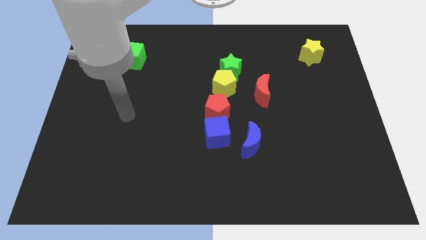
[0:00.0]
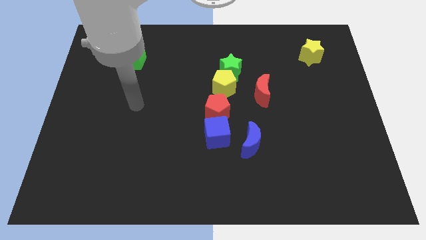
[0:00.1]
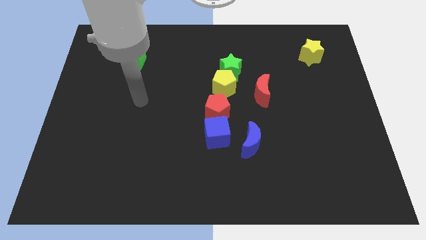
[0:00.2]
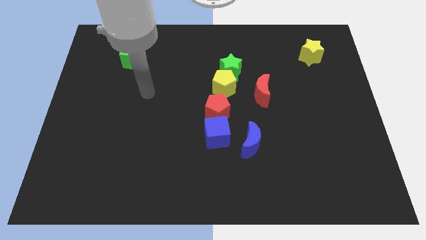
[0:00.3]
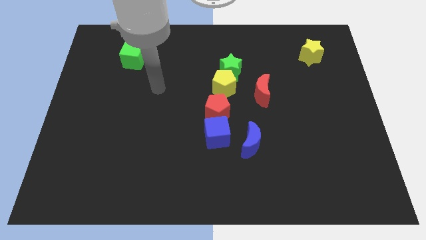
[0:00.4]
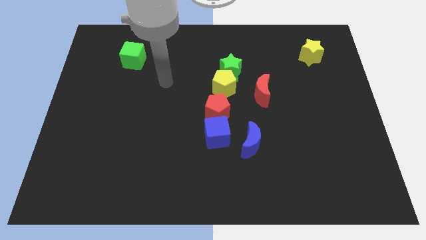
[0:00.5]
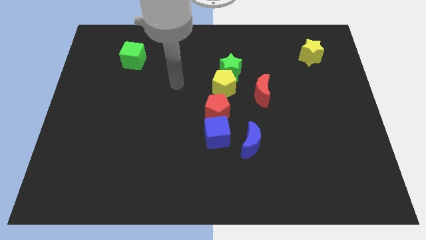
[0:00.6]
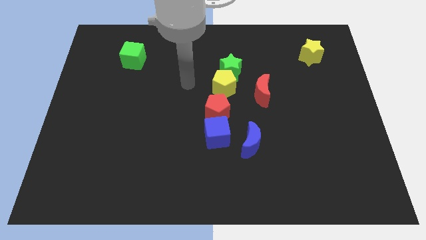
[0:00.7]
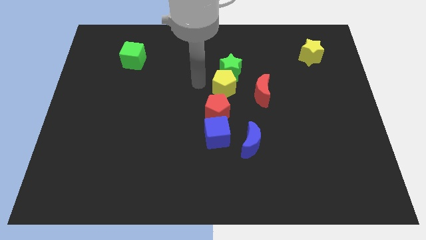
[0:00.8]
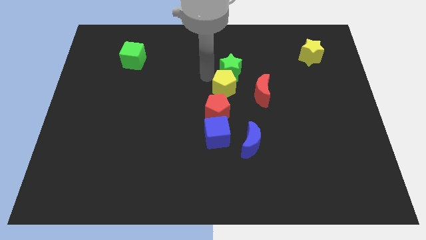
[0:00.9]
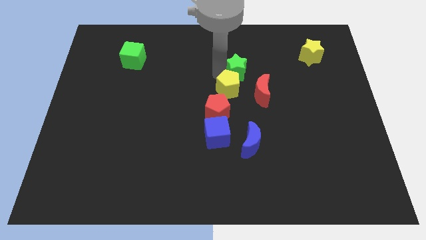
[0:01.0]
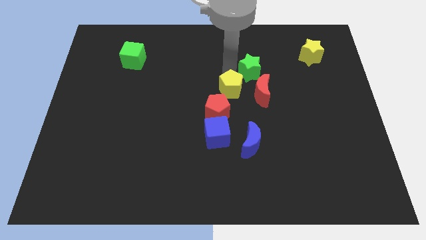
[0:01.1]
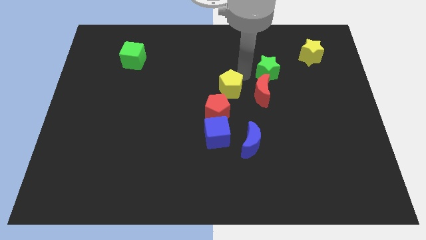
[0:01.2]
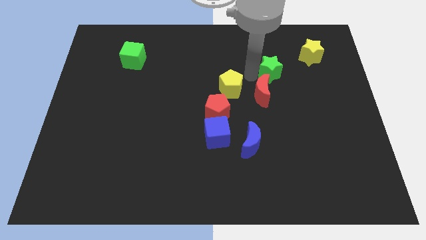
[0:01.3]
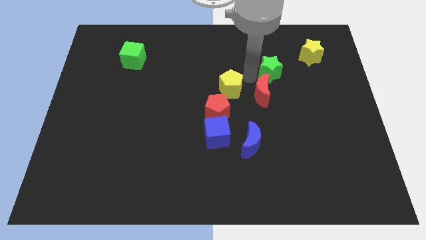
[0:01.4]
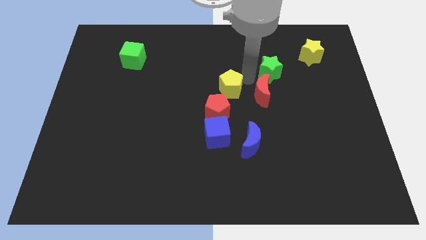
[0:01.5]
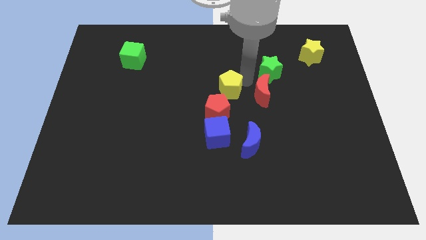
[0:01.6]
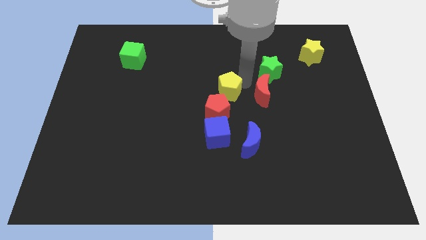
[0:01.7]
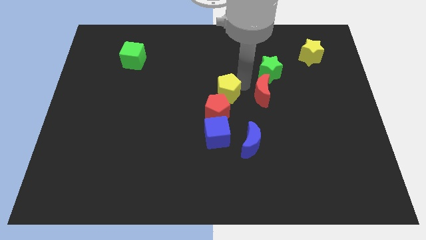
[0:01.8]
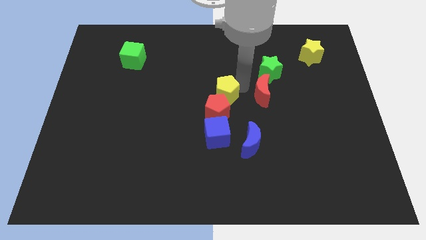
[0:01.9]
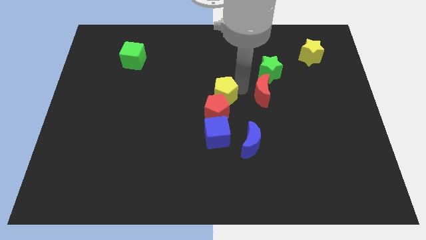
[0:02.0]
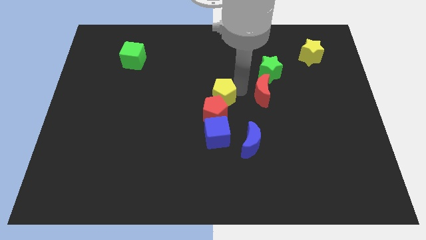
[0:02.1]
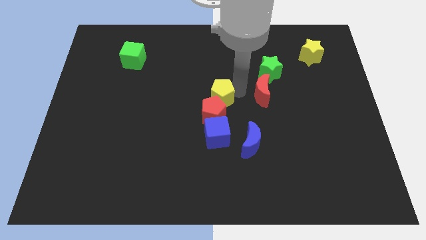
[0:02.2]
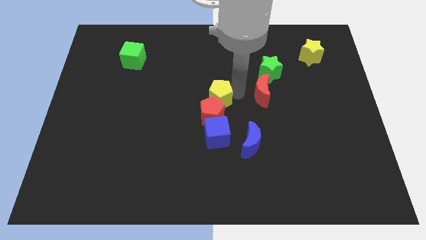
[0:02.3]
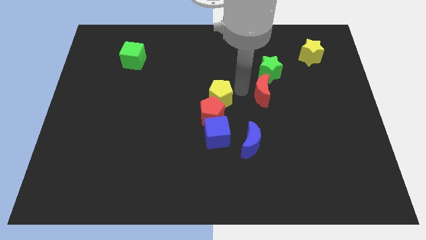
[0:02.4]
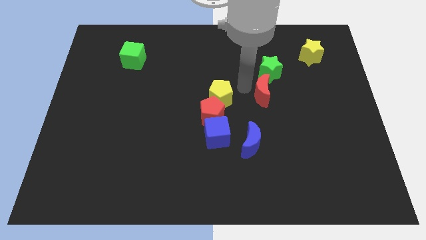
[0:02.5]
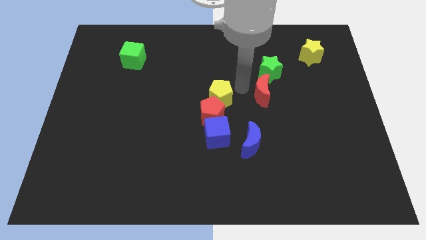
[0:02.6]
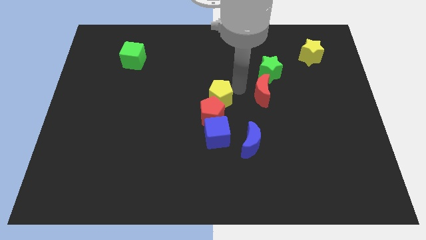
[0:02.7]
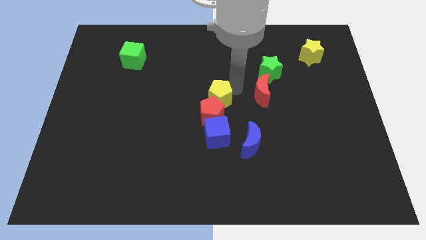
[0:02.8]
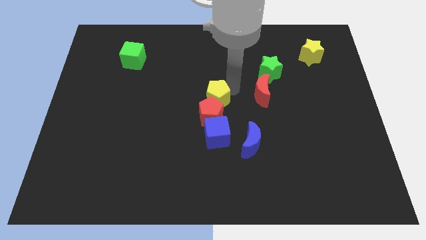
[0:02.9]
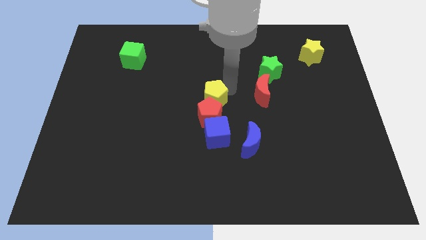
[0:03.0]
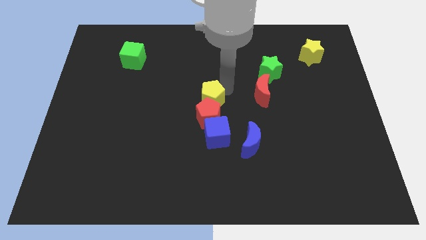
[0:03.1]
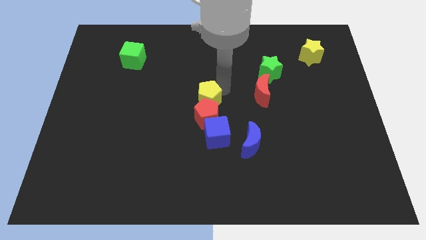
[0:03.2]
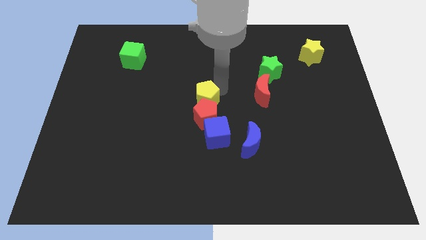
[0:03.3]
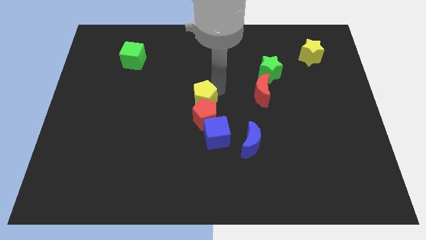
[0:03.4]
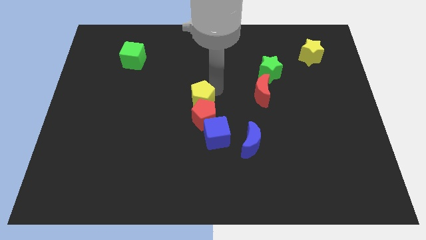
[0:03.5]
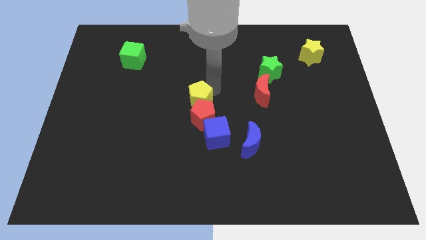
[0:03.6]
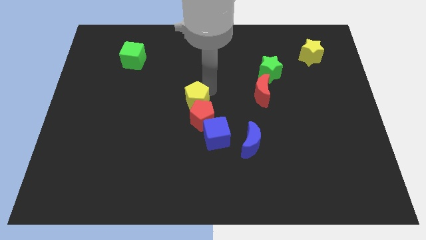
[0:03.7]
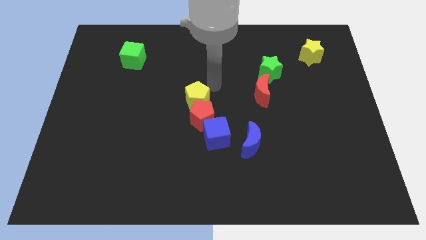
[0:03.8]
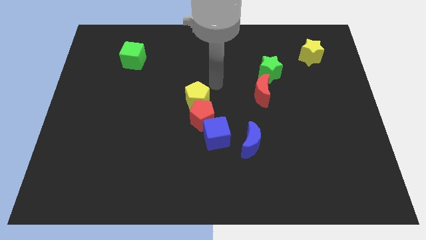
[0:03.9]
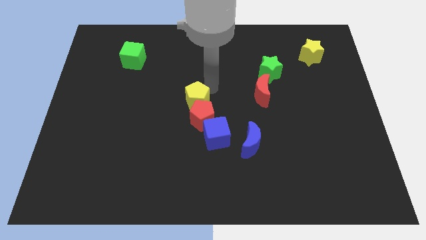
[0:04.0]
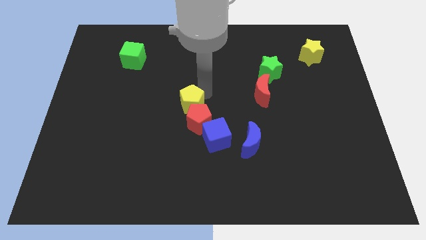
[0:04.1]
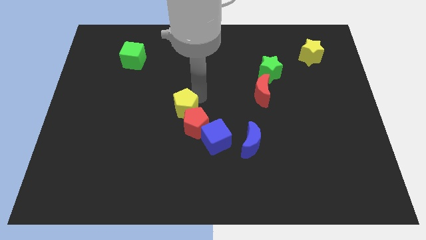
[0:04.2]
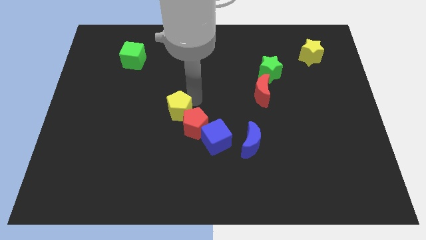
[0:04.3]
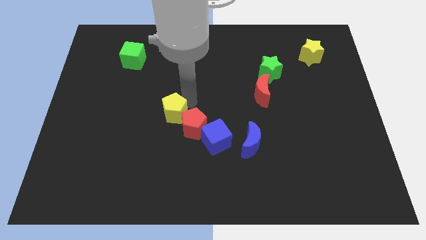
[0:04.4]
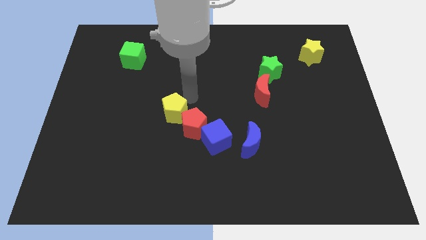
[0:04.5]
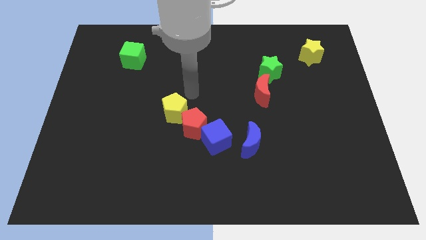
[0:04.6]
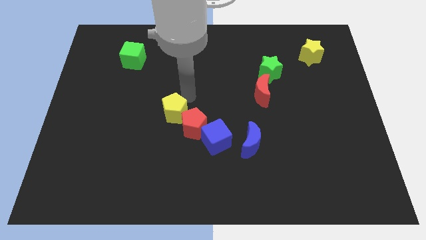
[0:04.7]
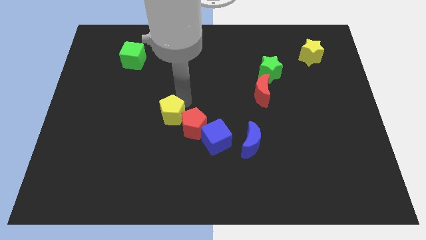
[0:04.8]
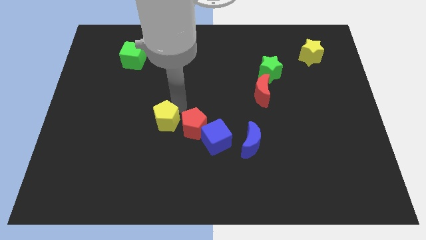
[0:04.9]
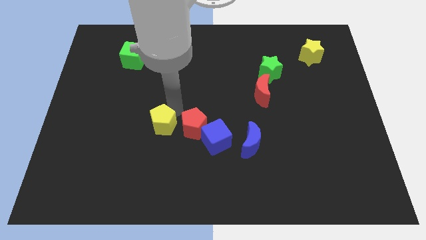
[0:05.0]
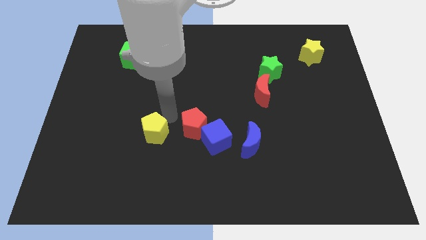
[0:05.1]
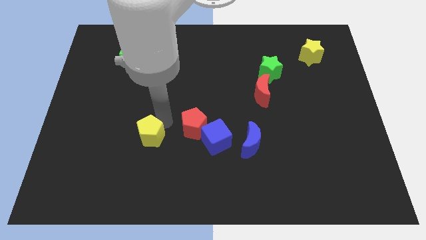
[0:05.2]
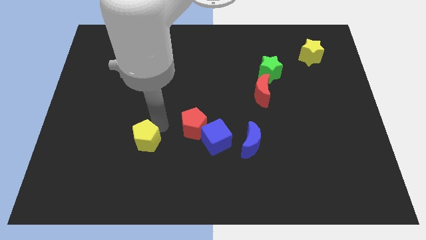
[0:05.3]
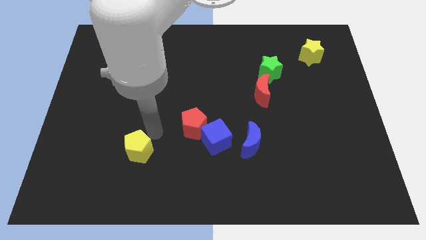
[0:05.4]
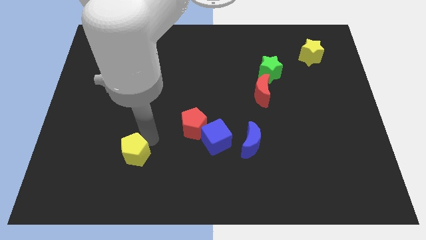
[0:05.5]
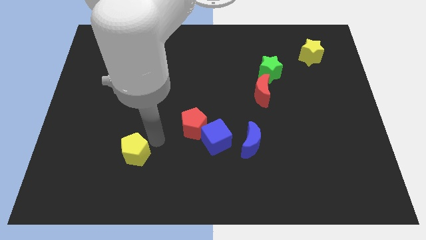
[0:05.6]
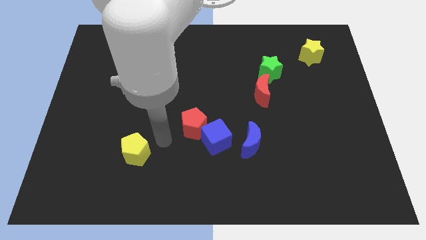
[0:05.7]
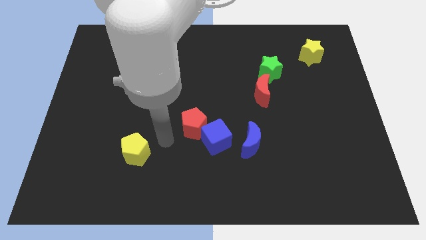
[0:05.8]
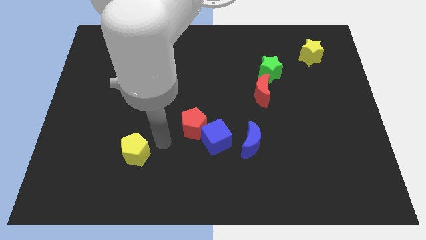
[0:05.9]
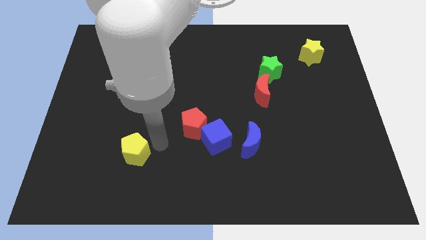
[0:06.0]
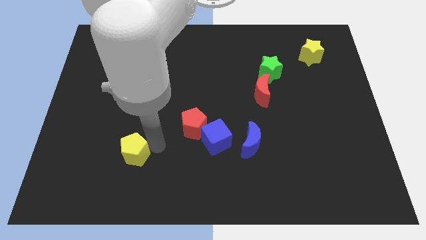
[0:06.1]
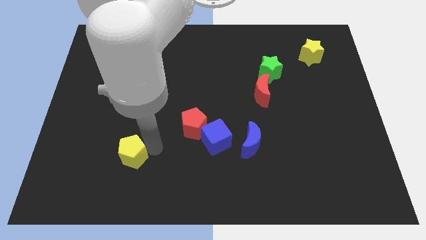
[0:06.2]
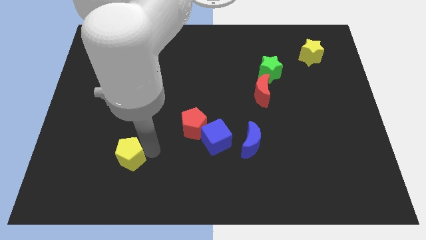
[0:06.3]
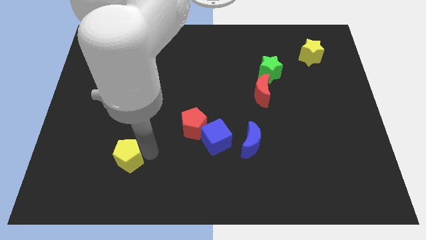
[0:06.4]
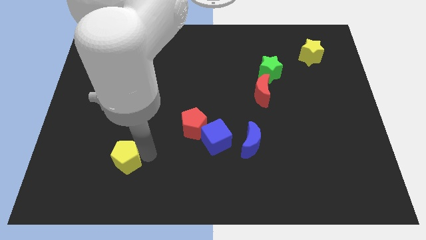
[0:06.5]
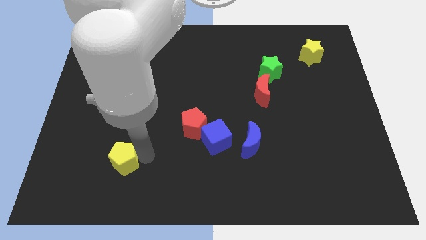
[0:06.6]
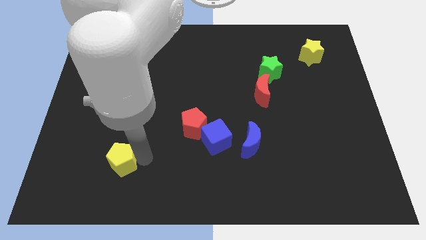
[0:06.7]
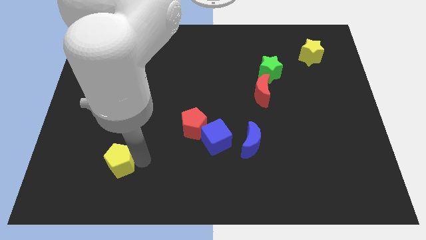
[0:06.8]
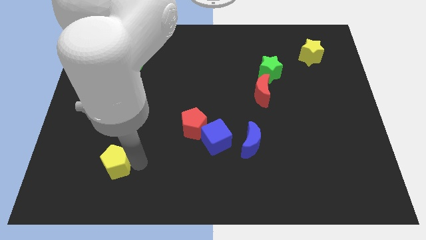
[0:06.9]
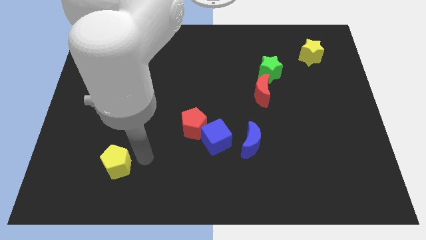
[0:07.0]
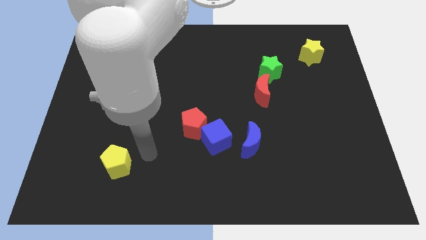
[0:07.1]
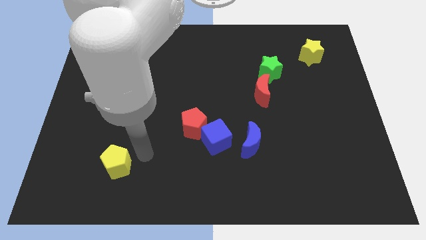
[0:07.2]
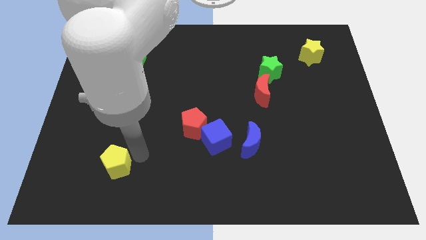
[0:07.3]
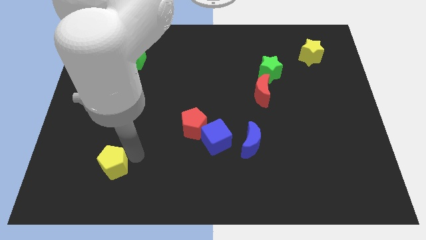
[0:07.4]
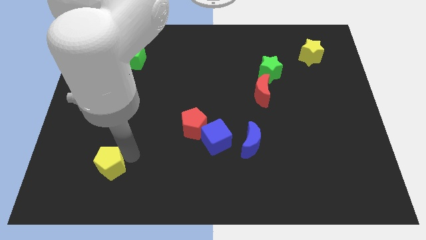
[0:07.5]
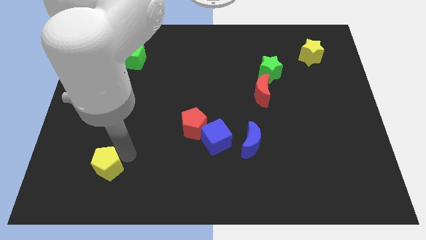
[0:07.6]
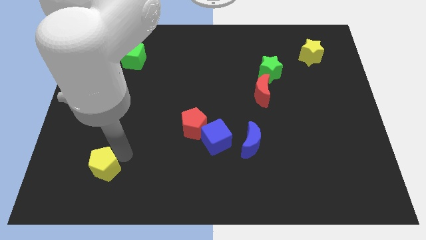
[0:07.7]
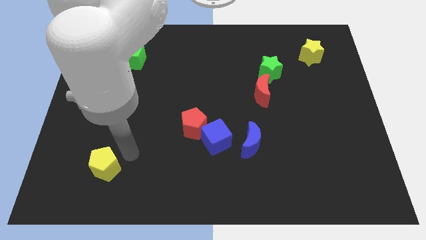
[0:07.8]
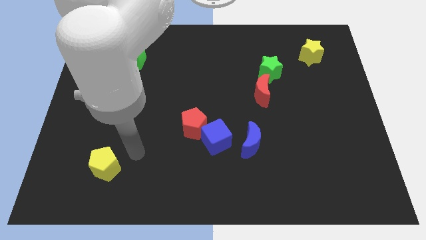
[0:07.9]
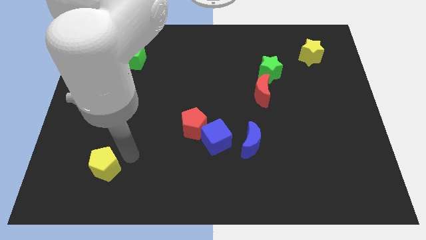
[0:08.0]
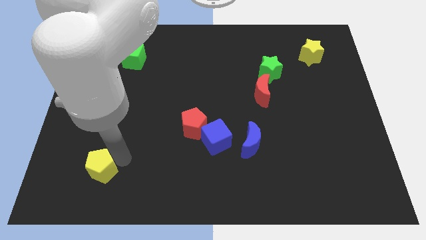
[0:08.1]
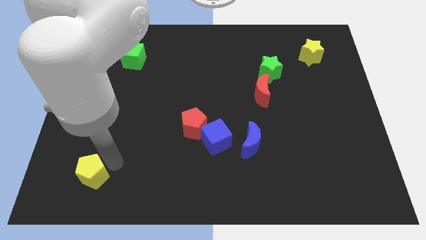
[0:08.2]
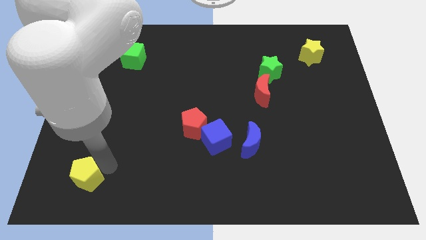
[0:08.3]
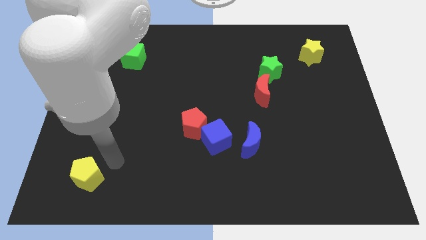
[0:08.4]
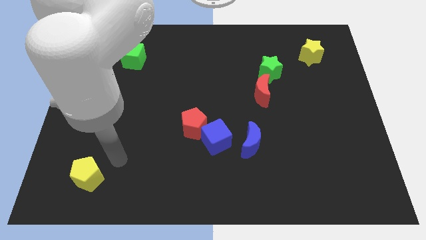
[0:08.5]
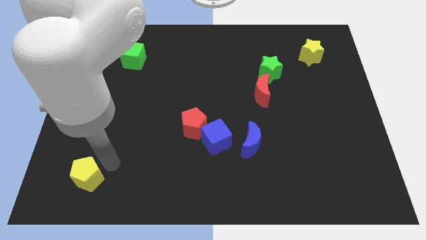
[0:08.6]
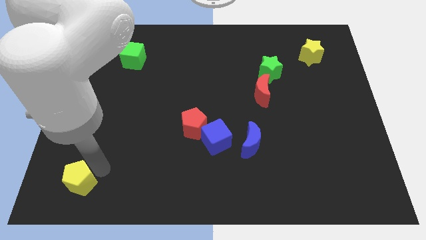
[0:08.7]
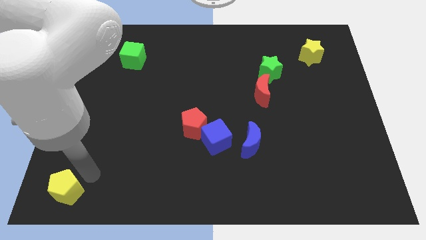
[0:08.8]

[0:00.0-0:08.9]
slide the yellow pentagon to the lower left corner
